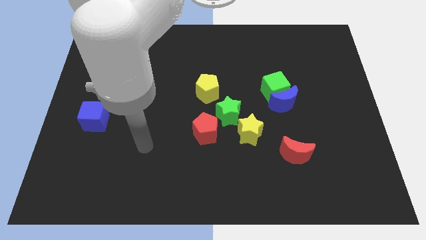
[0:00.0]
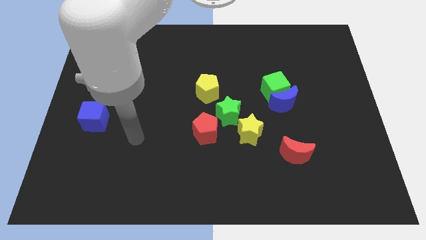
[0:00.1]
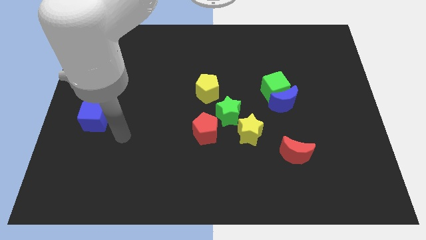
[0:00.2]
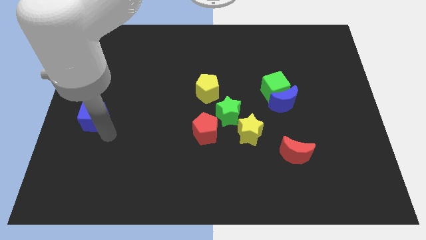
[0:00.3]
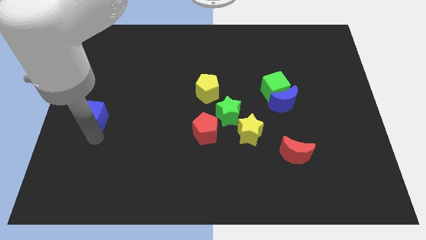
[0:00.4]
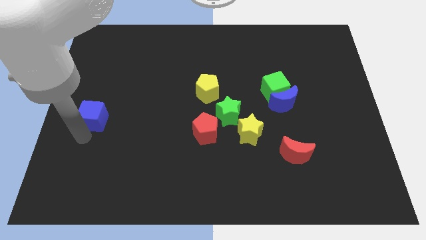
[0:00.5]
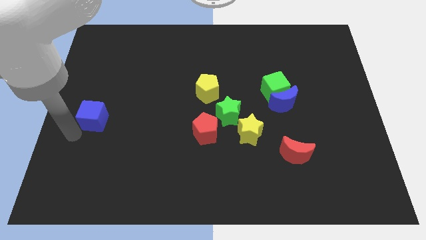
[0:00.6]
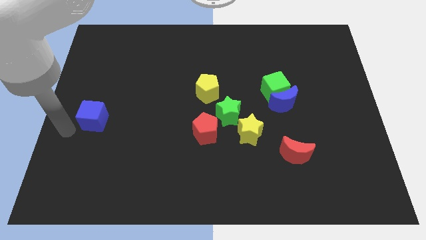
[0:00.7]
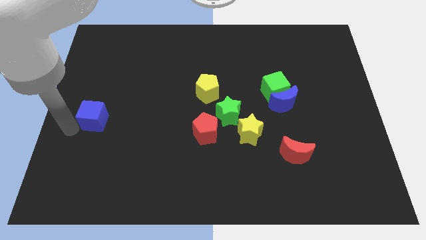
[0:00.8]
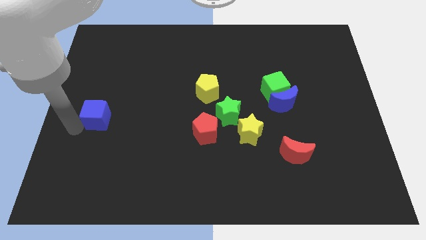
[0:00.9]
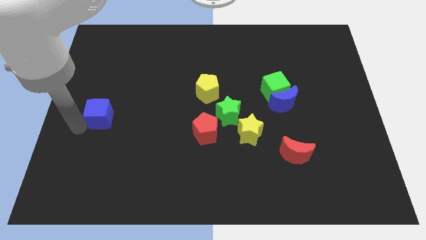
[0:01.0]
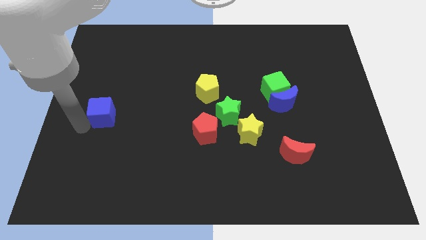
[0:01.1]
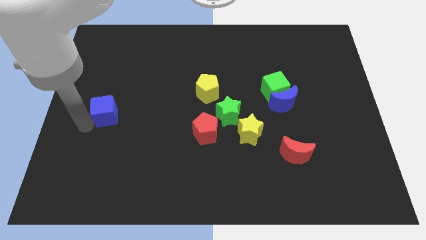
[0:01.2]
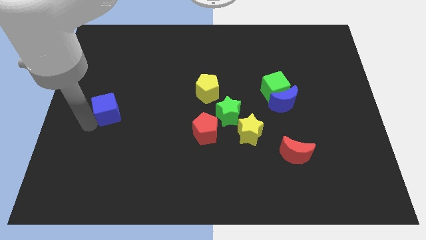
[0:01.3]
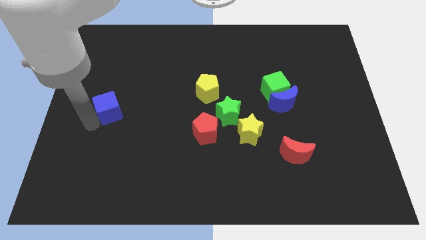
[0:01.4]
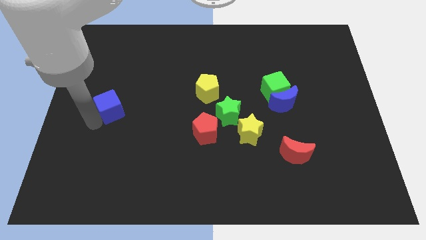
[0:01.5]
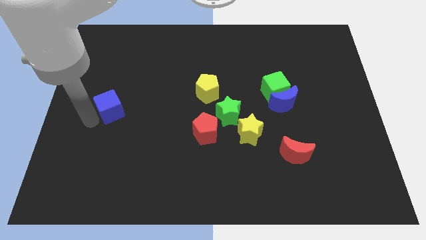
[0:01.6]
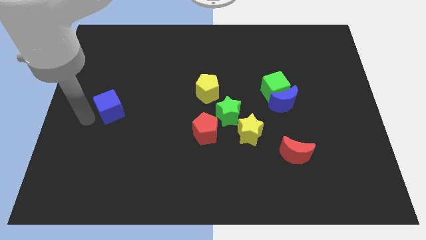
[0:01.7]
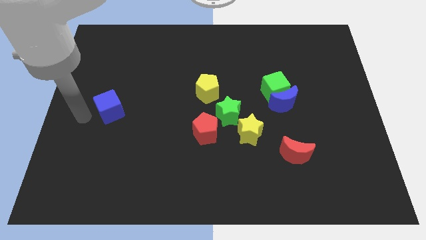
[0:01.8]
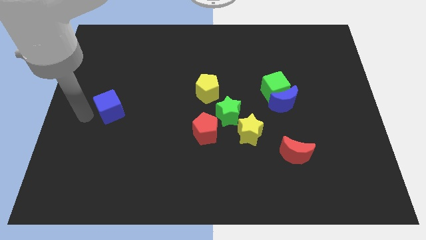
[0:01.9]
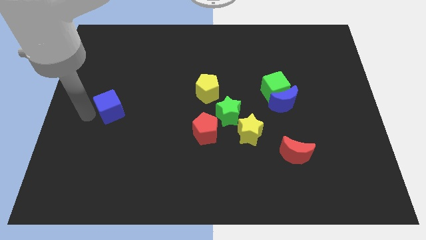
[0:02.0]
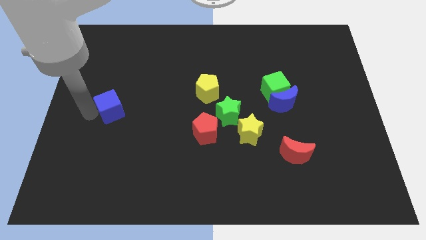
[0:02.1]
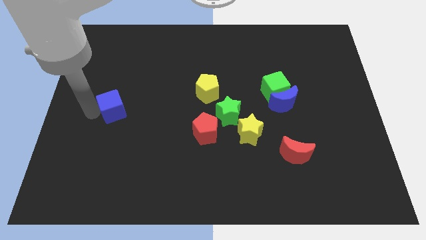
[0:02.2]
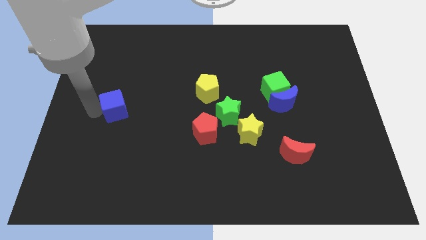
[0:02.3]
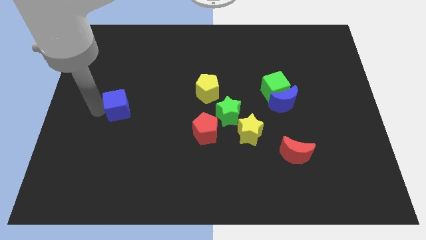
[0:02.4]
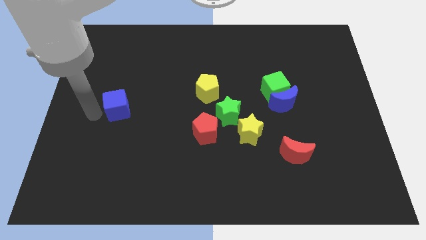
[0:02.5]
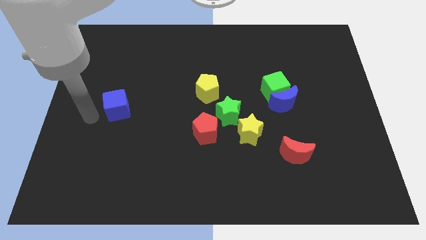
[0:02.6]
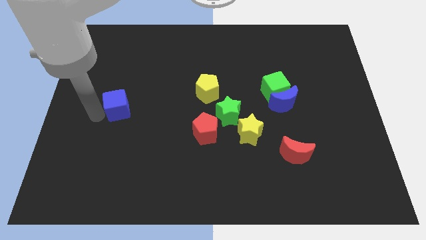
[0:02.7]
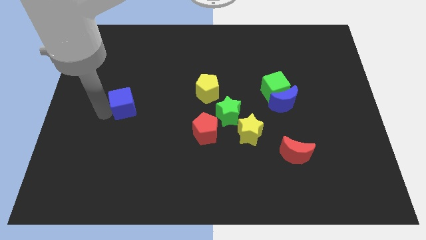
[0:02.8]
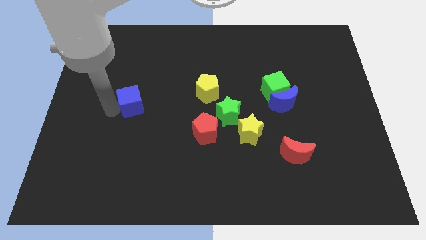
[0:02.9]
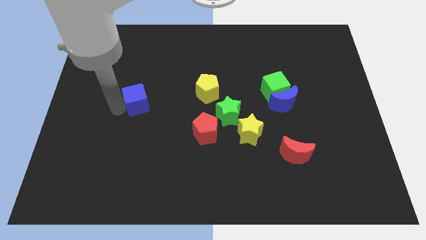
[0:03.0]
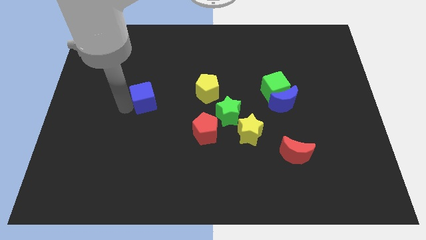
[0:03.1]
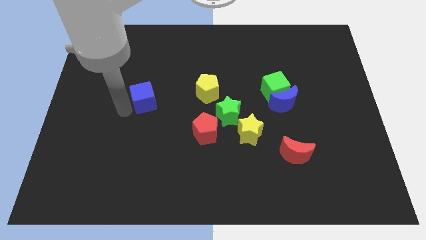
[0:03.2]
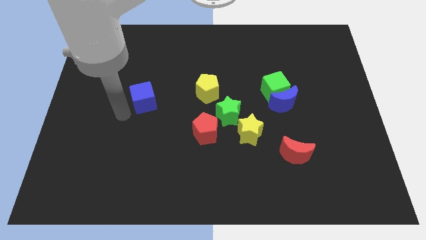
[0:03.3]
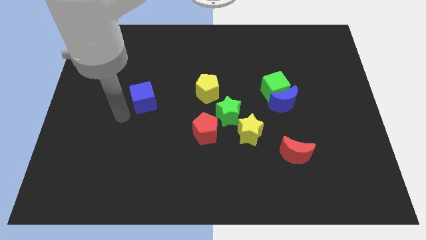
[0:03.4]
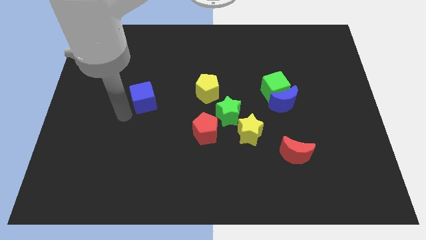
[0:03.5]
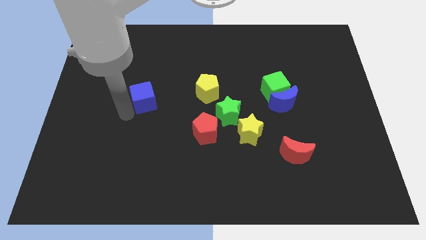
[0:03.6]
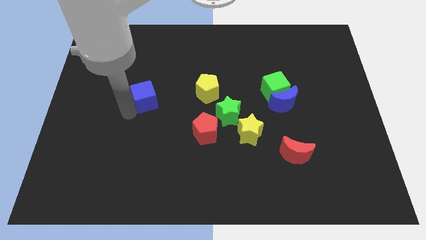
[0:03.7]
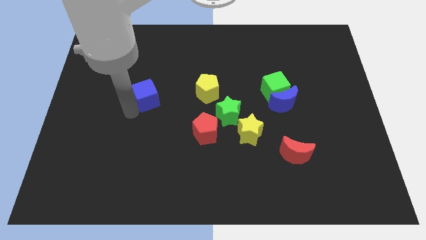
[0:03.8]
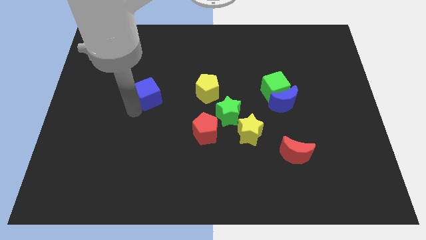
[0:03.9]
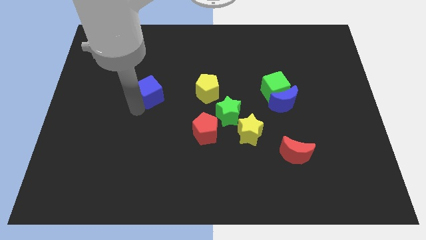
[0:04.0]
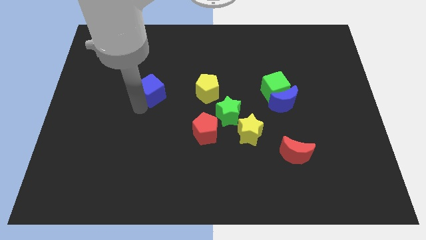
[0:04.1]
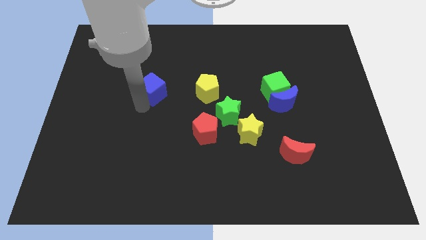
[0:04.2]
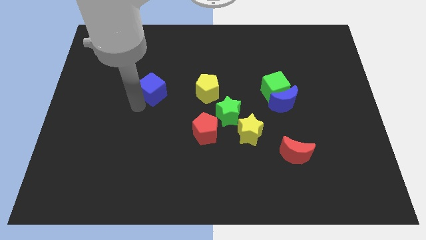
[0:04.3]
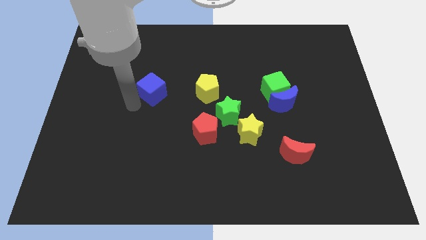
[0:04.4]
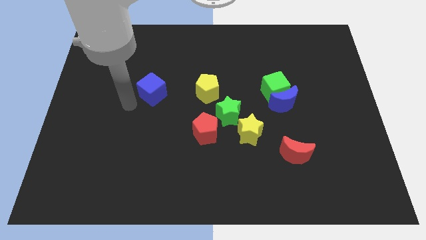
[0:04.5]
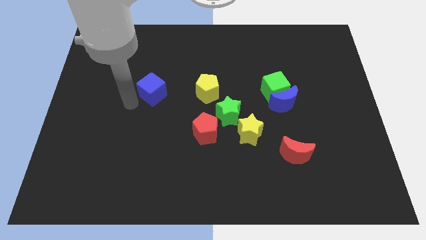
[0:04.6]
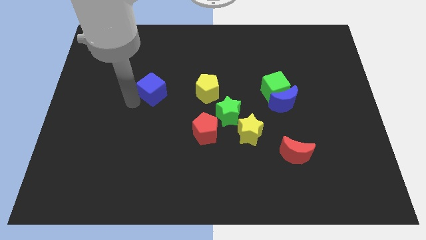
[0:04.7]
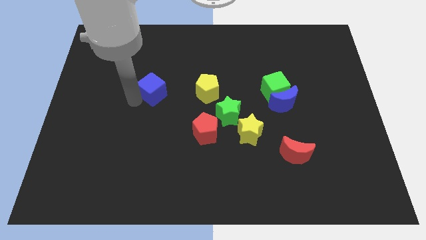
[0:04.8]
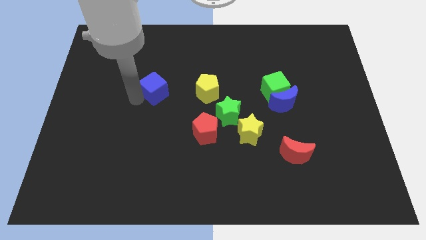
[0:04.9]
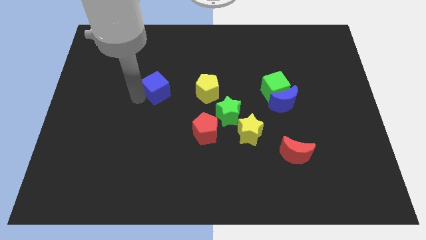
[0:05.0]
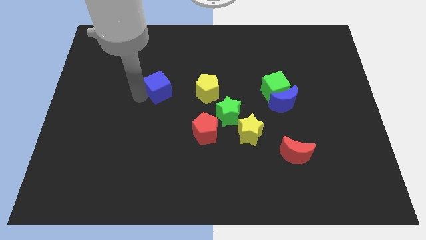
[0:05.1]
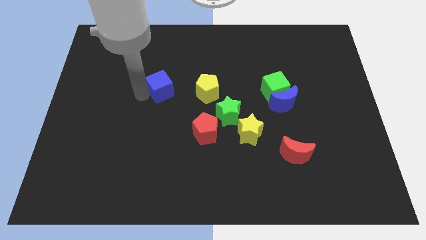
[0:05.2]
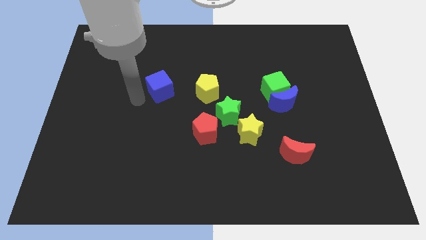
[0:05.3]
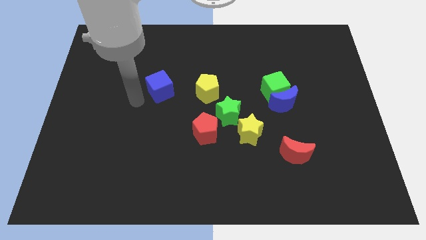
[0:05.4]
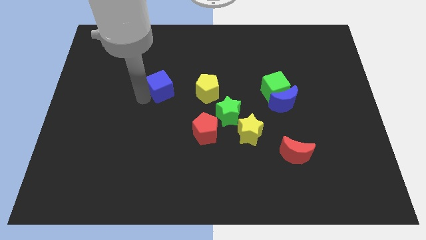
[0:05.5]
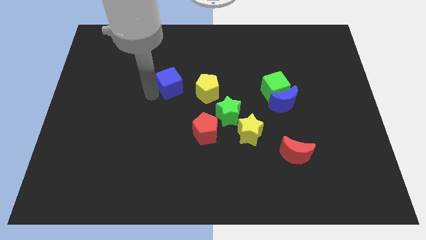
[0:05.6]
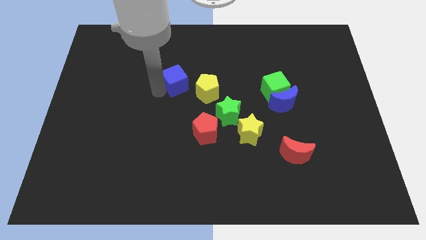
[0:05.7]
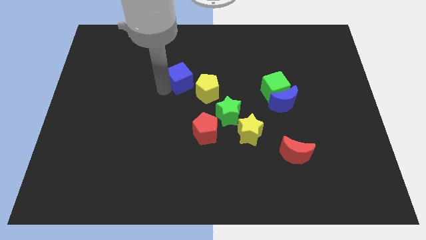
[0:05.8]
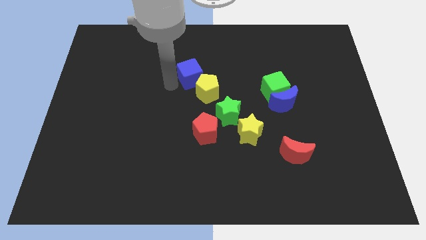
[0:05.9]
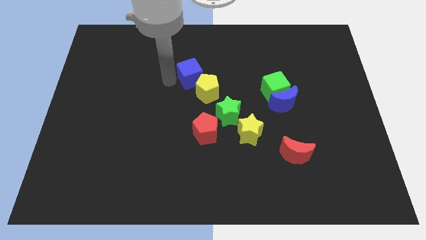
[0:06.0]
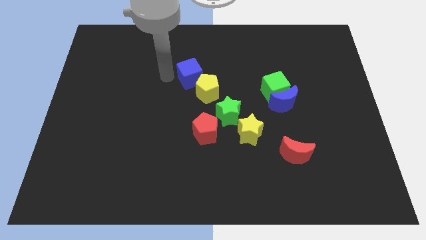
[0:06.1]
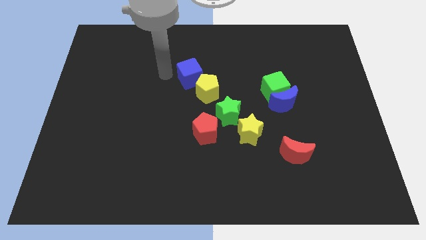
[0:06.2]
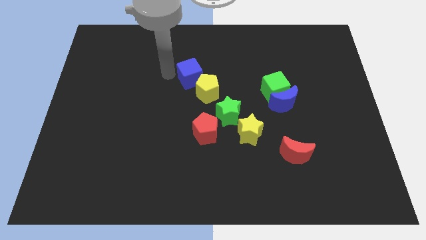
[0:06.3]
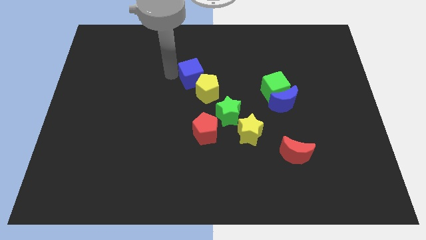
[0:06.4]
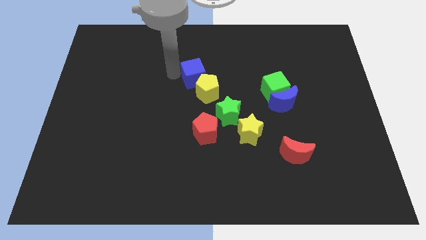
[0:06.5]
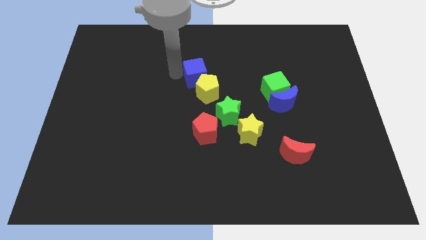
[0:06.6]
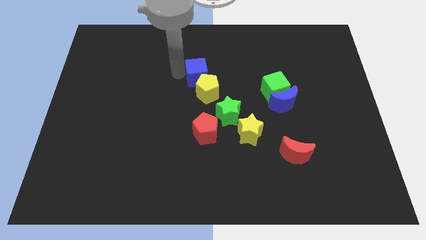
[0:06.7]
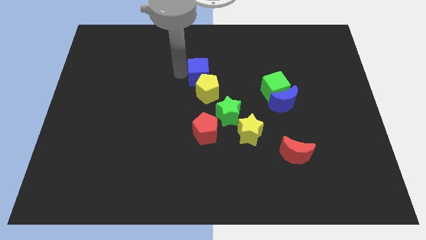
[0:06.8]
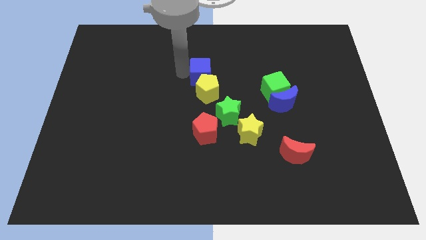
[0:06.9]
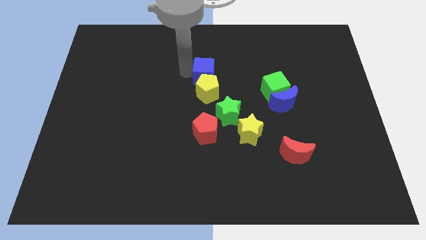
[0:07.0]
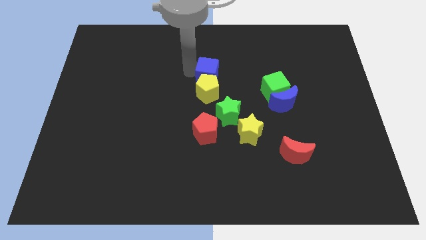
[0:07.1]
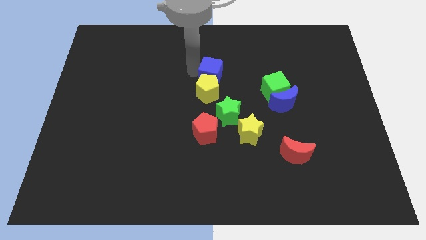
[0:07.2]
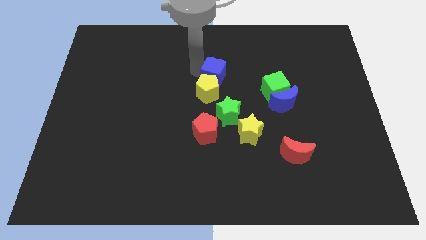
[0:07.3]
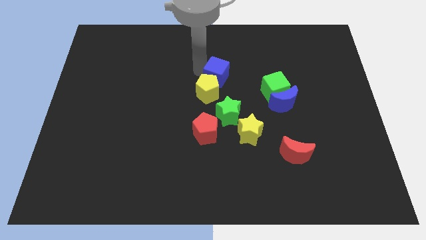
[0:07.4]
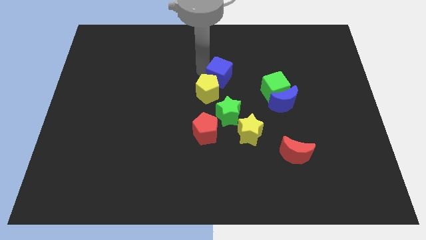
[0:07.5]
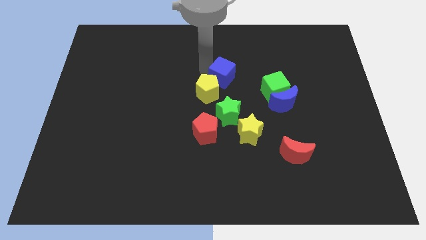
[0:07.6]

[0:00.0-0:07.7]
put the blue cube just left of the green cube

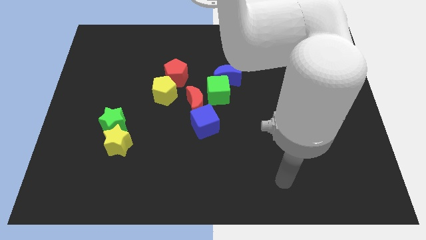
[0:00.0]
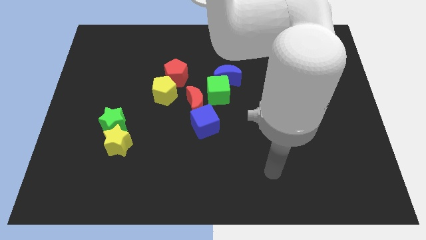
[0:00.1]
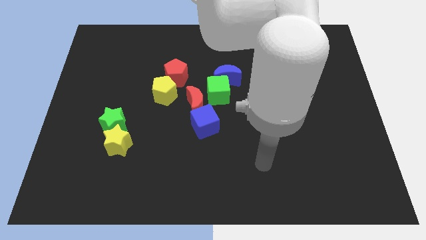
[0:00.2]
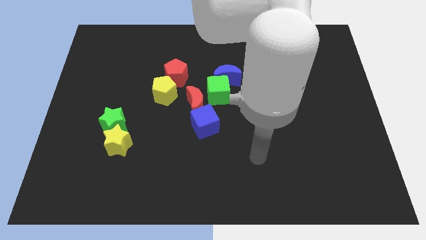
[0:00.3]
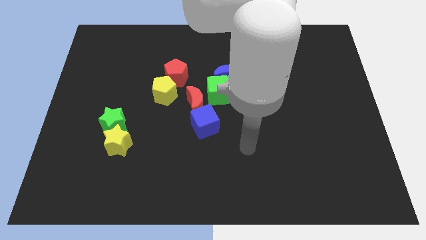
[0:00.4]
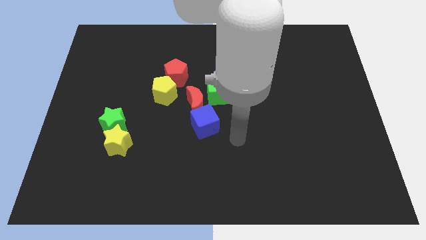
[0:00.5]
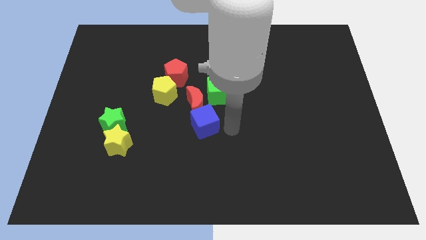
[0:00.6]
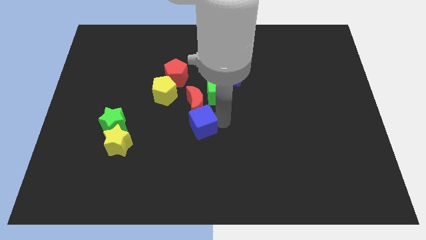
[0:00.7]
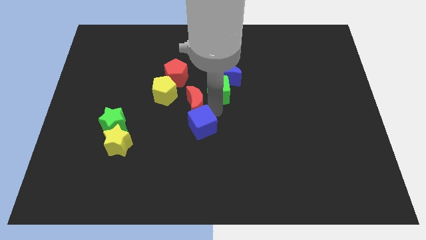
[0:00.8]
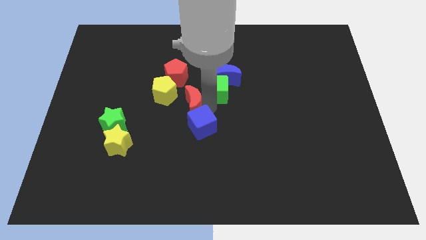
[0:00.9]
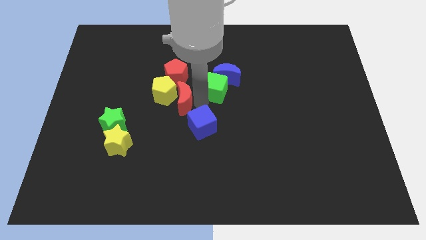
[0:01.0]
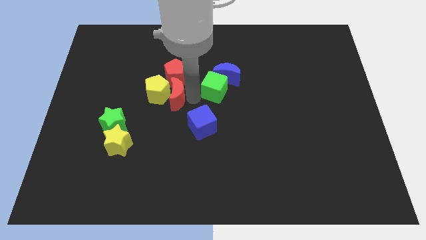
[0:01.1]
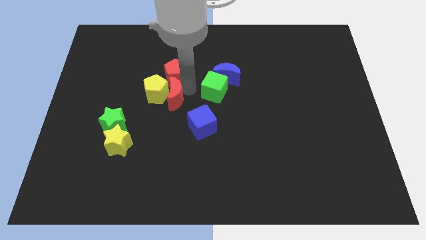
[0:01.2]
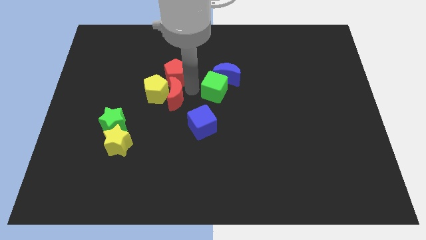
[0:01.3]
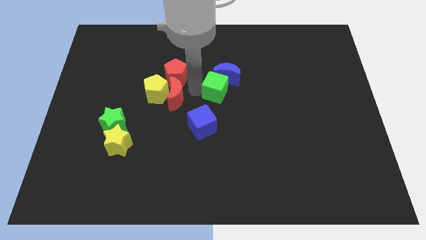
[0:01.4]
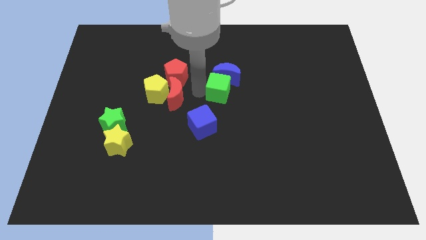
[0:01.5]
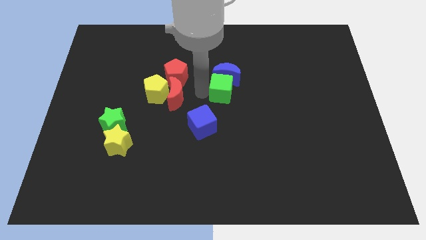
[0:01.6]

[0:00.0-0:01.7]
slide the green cube diagonally down and to the right of the blue moon
